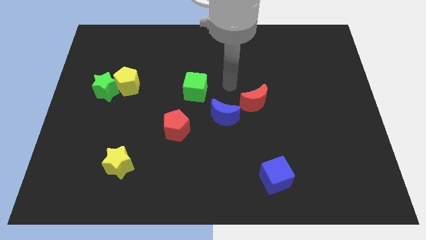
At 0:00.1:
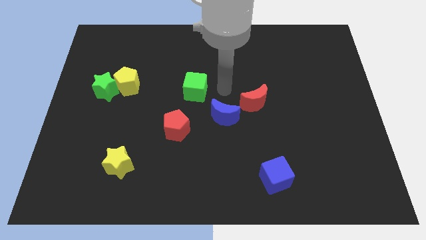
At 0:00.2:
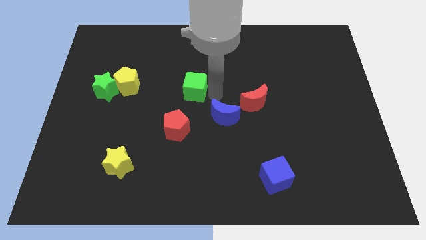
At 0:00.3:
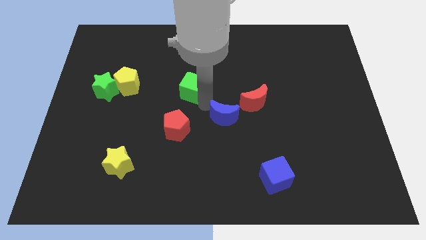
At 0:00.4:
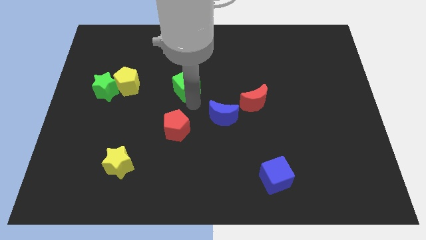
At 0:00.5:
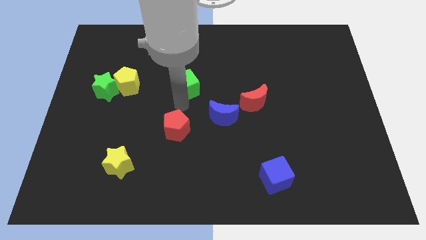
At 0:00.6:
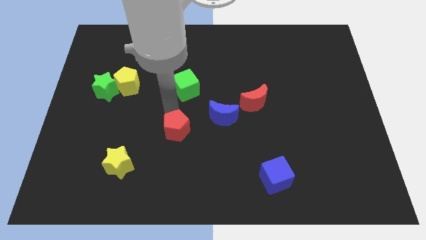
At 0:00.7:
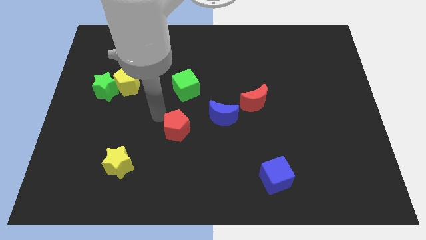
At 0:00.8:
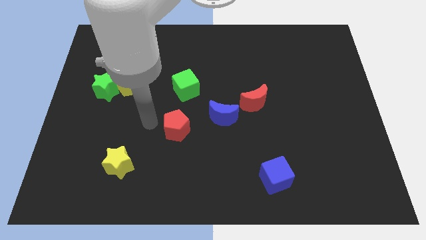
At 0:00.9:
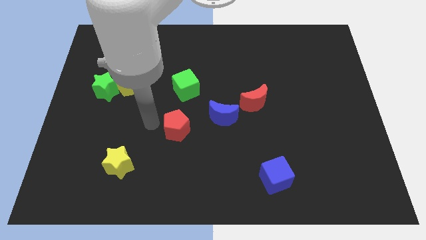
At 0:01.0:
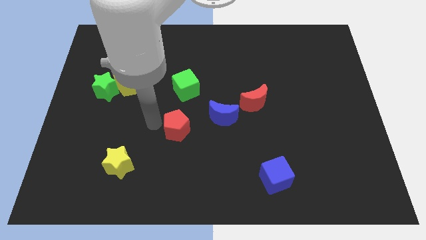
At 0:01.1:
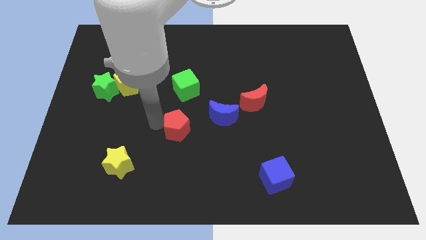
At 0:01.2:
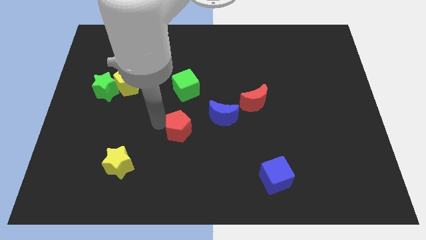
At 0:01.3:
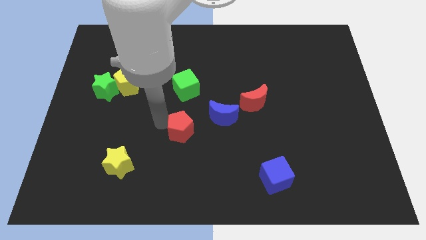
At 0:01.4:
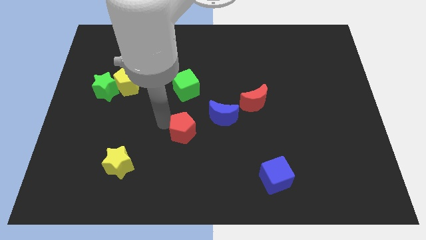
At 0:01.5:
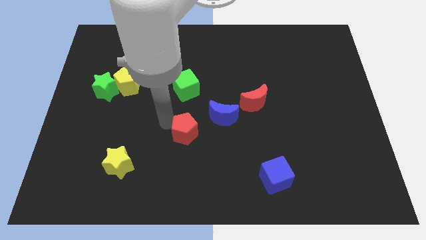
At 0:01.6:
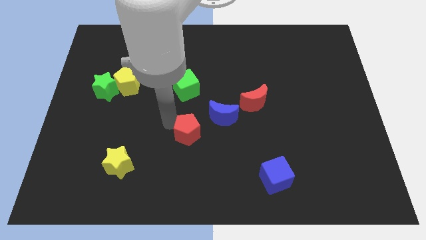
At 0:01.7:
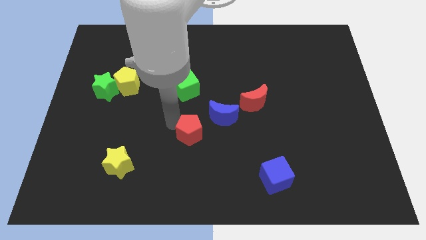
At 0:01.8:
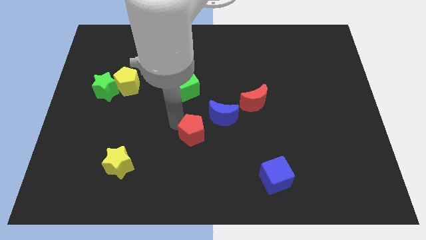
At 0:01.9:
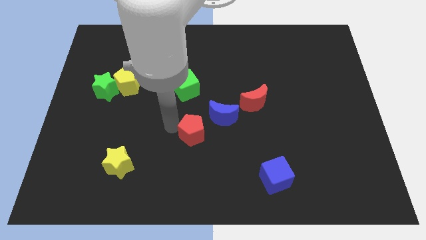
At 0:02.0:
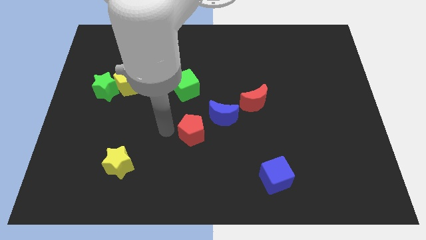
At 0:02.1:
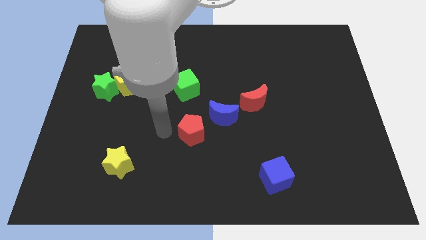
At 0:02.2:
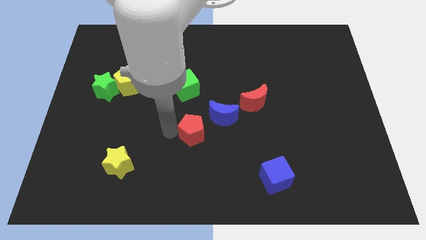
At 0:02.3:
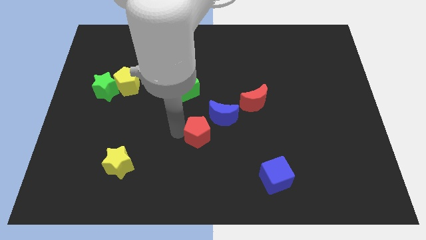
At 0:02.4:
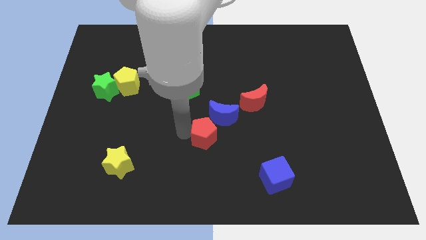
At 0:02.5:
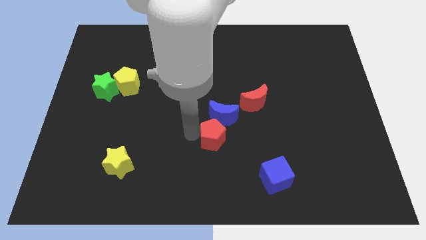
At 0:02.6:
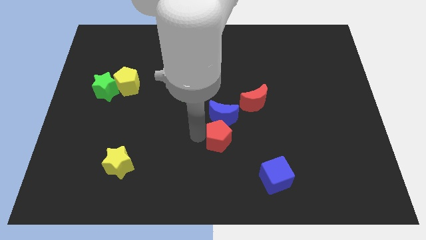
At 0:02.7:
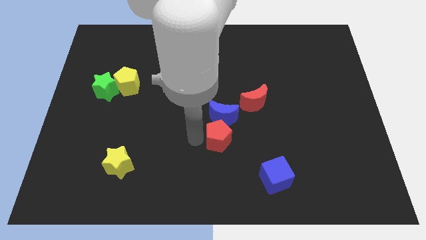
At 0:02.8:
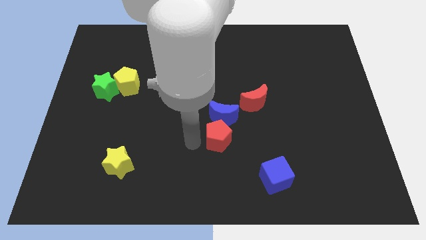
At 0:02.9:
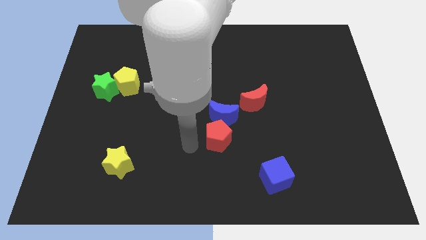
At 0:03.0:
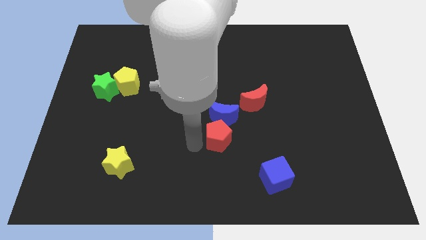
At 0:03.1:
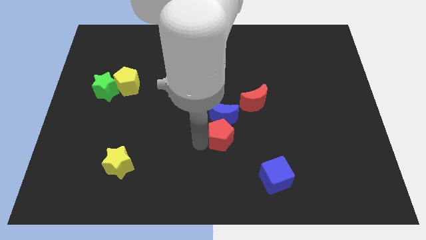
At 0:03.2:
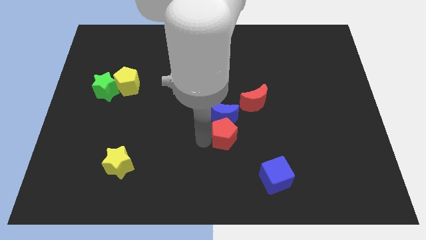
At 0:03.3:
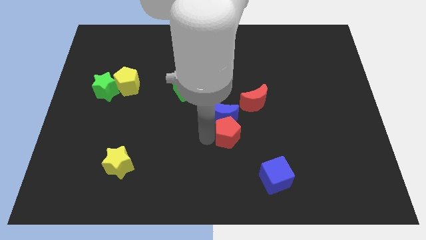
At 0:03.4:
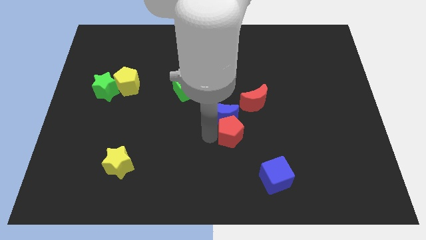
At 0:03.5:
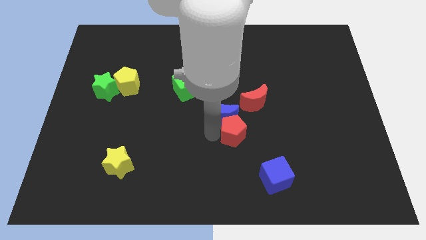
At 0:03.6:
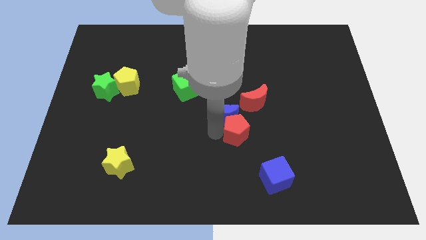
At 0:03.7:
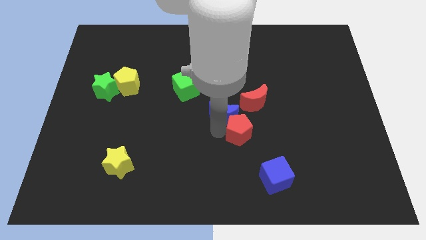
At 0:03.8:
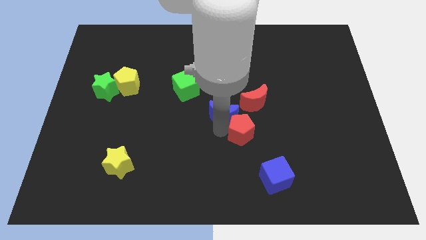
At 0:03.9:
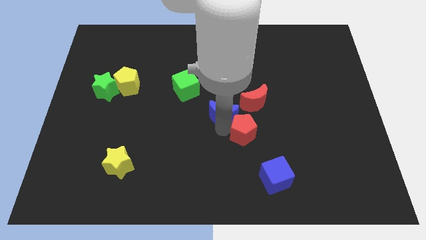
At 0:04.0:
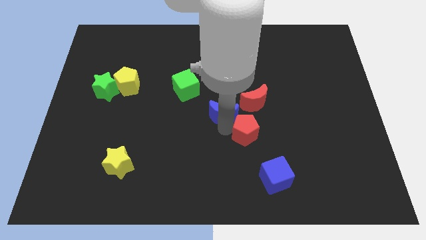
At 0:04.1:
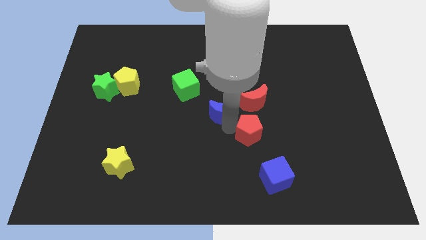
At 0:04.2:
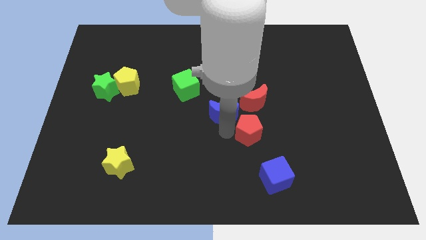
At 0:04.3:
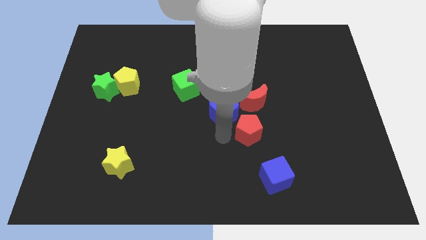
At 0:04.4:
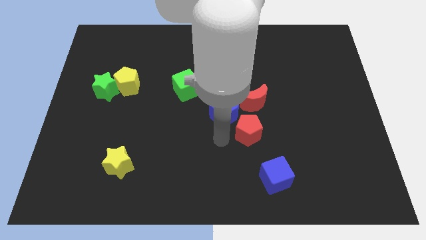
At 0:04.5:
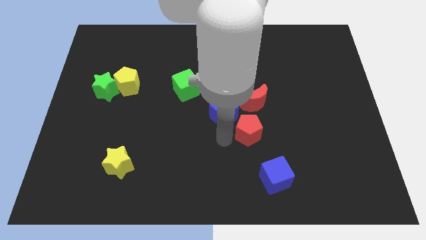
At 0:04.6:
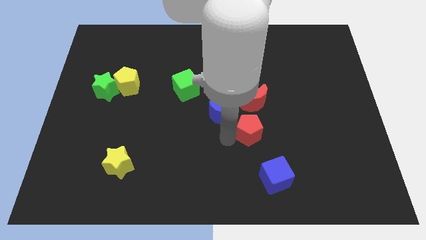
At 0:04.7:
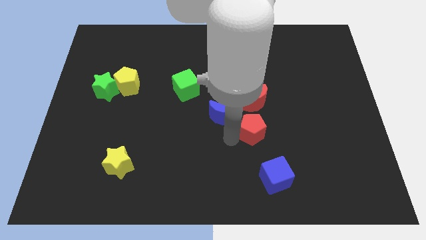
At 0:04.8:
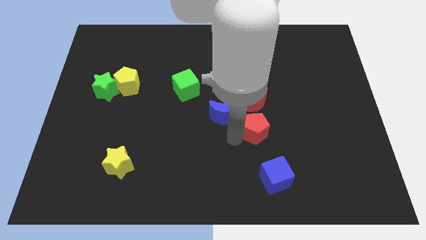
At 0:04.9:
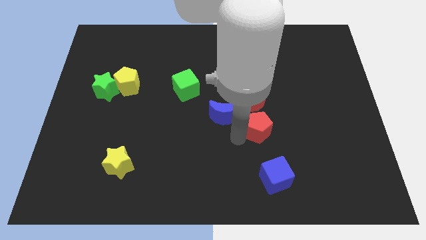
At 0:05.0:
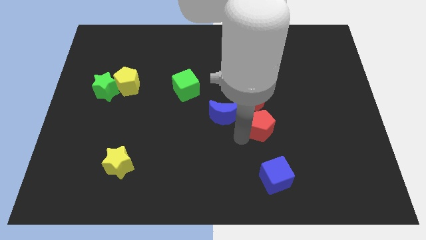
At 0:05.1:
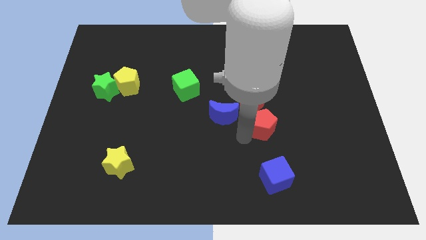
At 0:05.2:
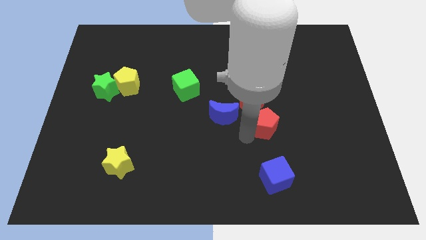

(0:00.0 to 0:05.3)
push the red pentagon right

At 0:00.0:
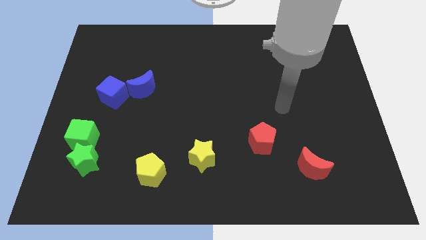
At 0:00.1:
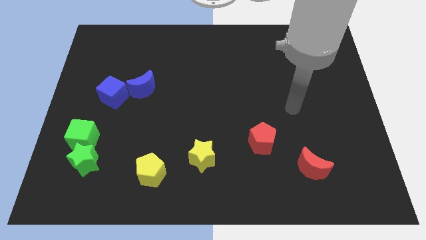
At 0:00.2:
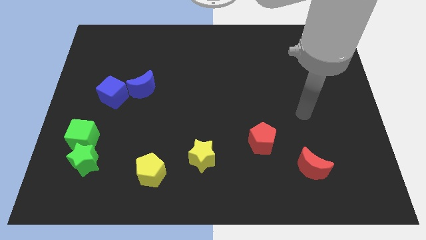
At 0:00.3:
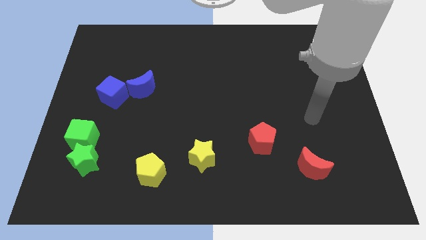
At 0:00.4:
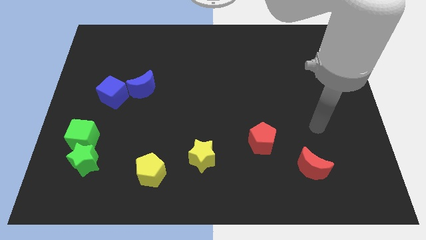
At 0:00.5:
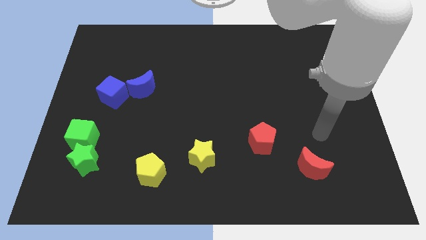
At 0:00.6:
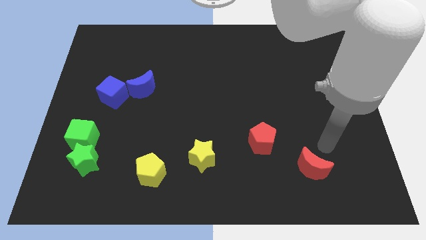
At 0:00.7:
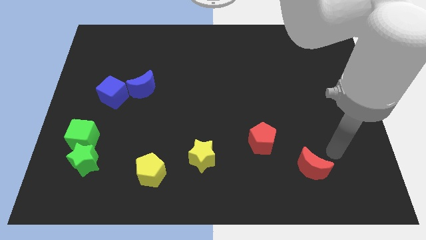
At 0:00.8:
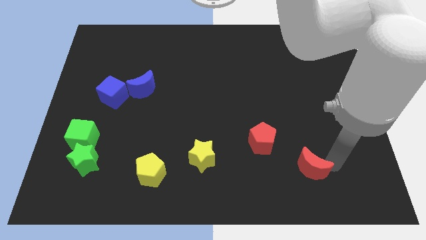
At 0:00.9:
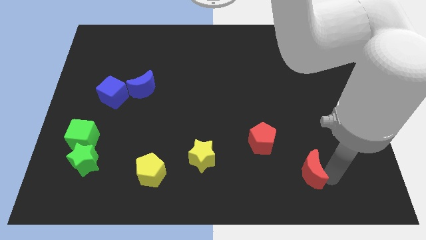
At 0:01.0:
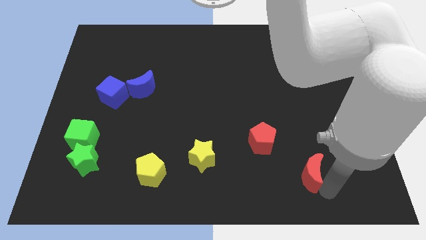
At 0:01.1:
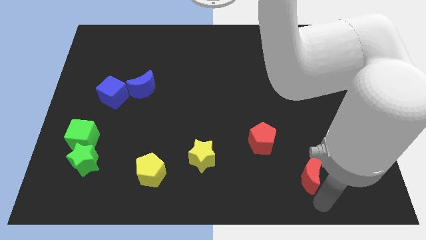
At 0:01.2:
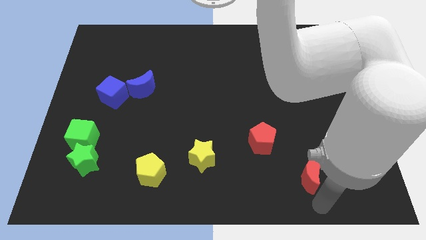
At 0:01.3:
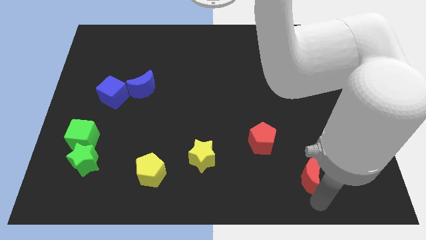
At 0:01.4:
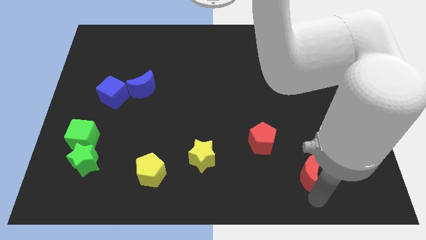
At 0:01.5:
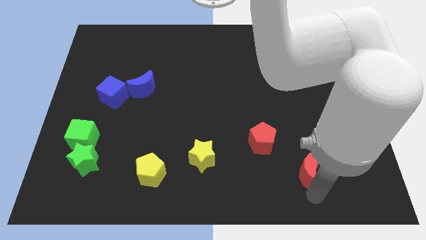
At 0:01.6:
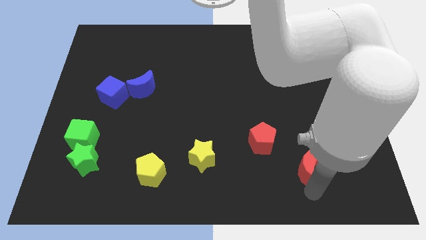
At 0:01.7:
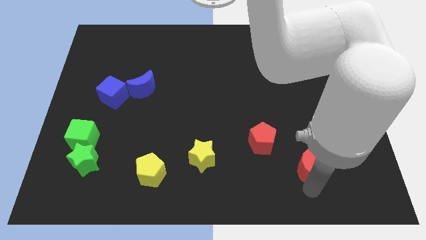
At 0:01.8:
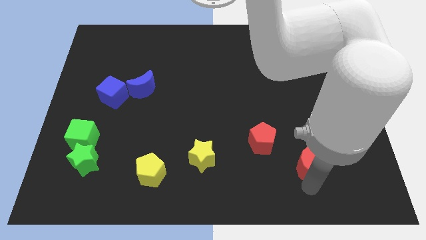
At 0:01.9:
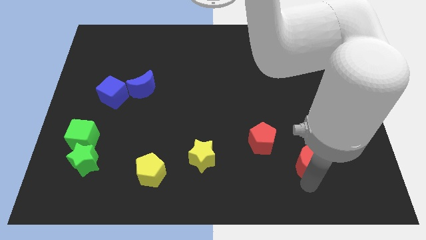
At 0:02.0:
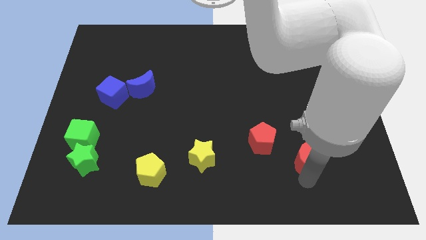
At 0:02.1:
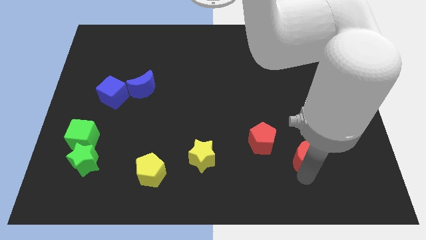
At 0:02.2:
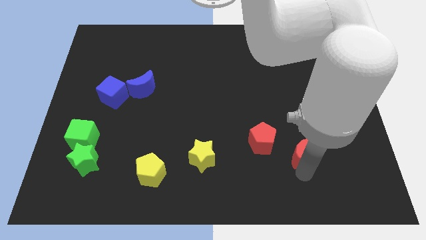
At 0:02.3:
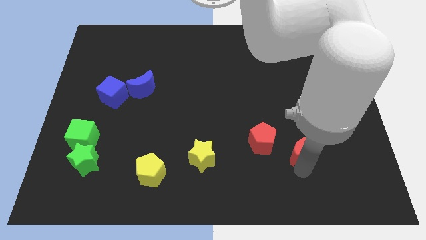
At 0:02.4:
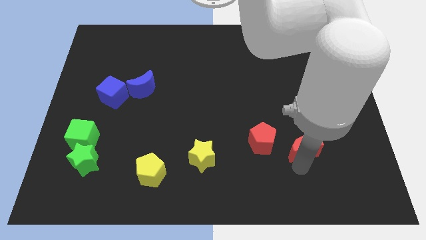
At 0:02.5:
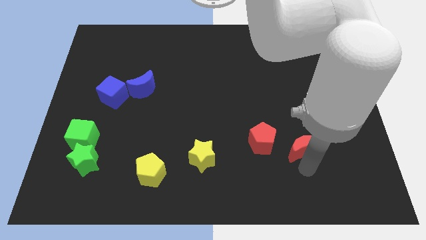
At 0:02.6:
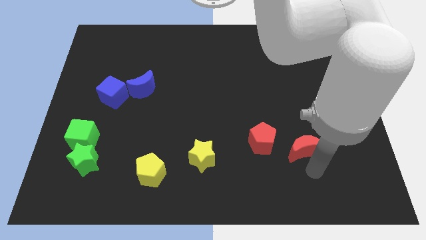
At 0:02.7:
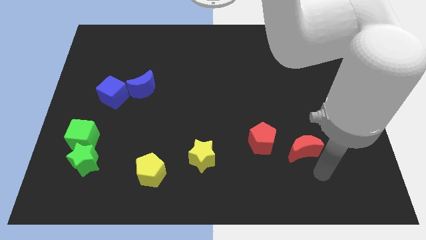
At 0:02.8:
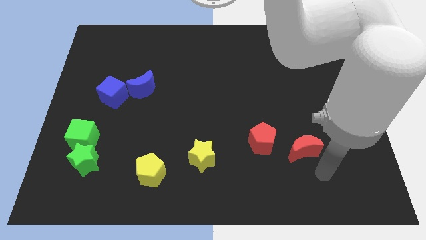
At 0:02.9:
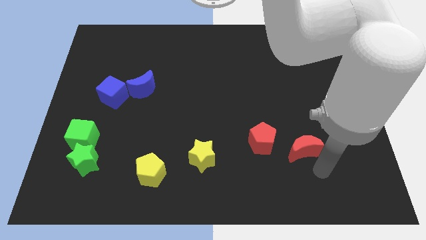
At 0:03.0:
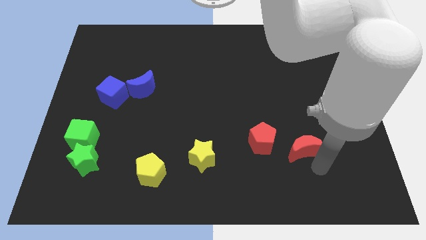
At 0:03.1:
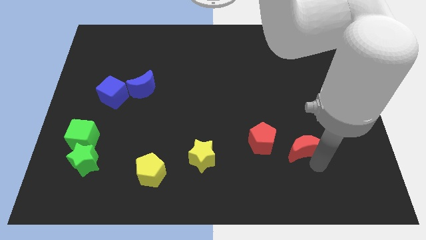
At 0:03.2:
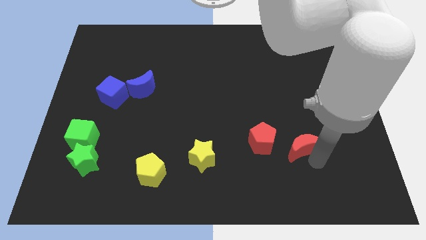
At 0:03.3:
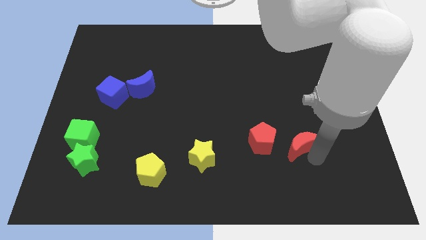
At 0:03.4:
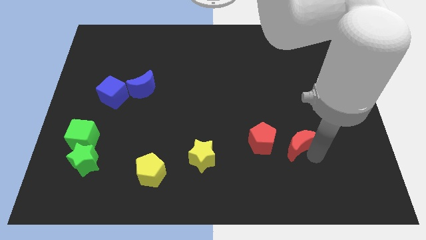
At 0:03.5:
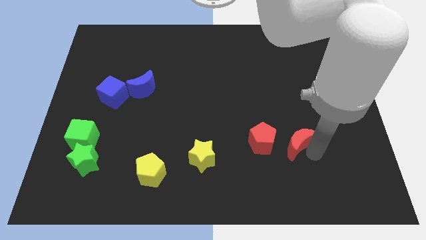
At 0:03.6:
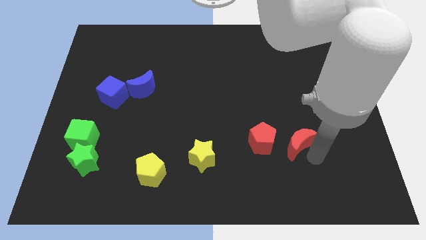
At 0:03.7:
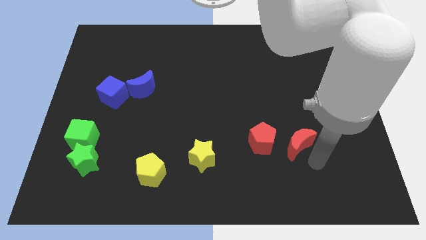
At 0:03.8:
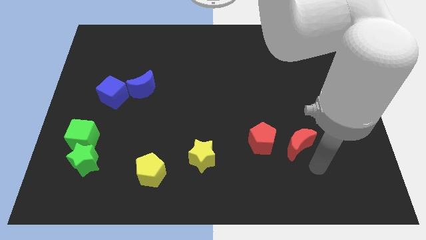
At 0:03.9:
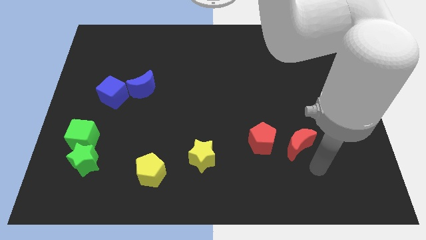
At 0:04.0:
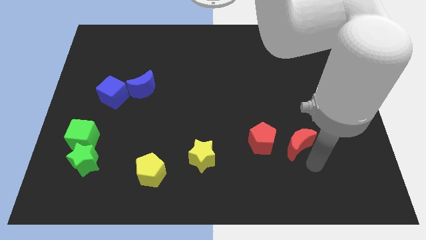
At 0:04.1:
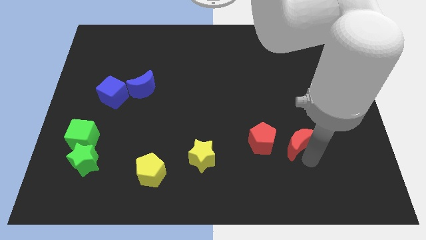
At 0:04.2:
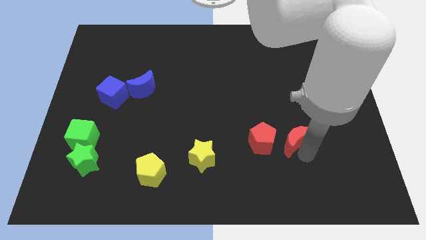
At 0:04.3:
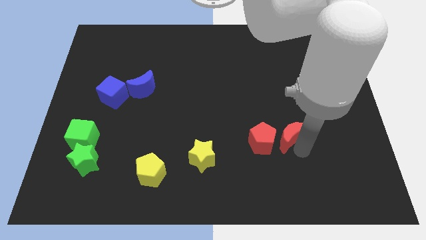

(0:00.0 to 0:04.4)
push the red moon slightly upwards and to the left
